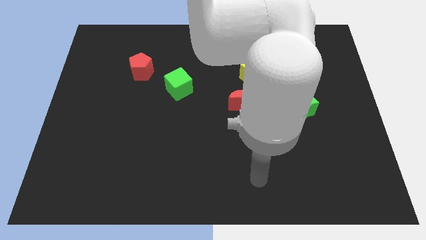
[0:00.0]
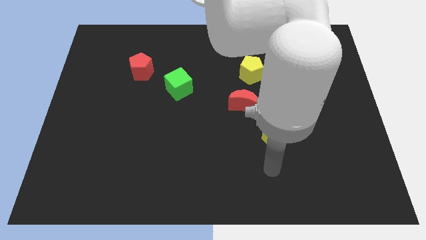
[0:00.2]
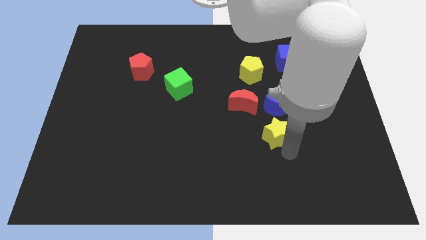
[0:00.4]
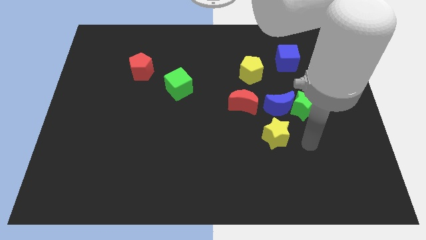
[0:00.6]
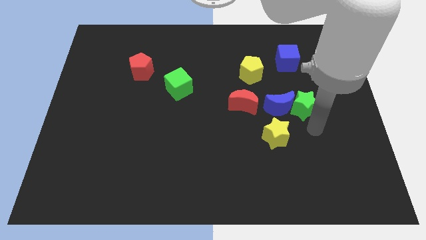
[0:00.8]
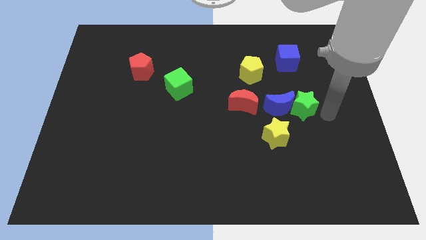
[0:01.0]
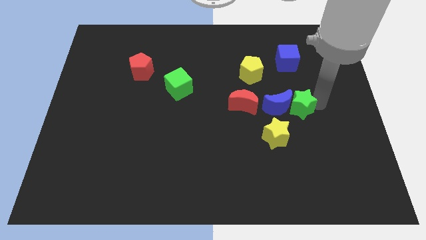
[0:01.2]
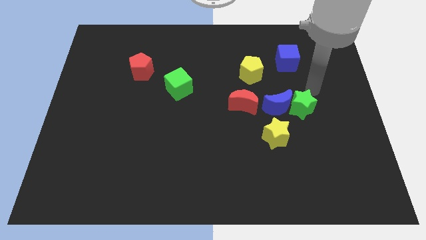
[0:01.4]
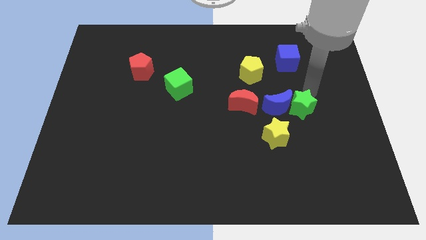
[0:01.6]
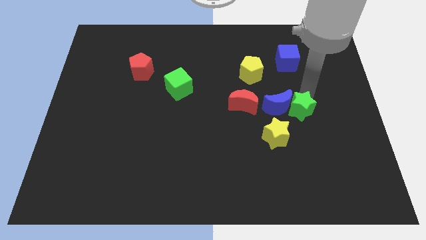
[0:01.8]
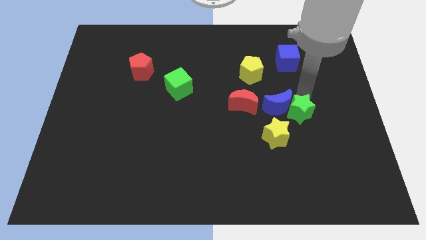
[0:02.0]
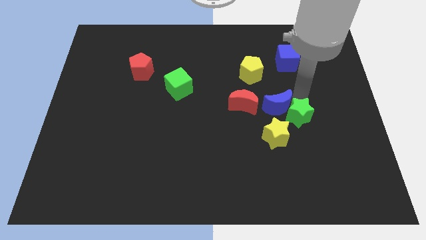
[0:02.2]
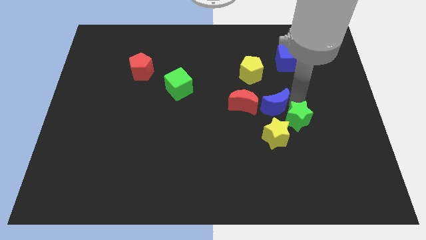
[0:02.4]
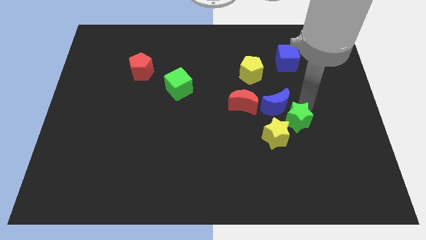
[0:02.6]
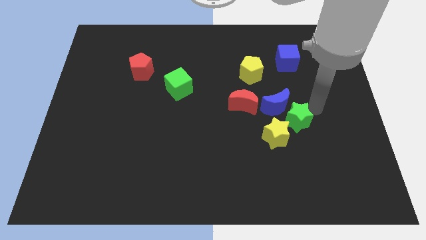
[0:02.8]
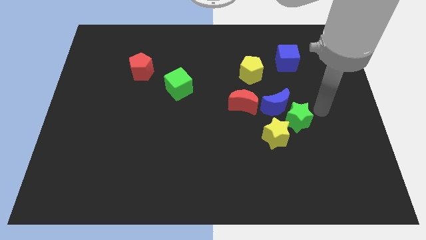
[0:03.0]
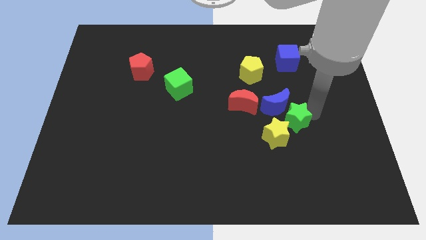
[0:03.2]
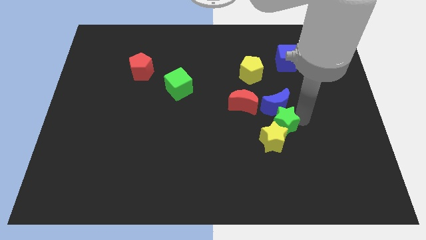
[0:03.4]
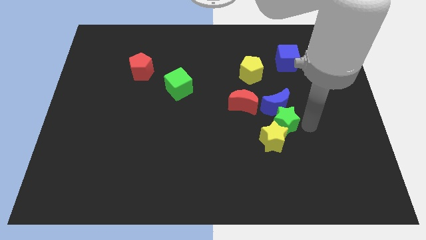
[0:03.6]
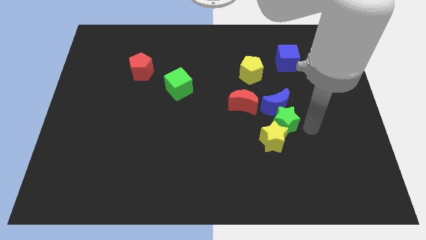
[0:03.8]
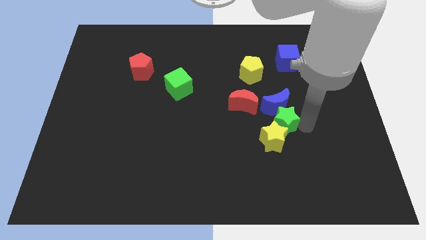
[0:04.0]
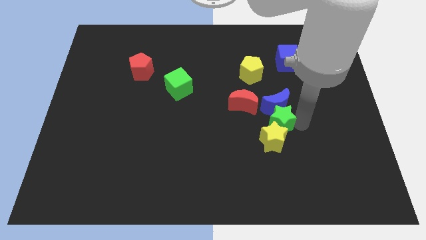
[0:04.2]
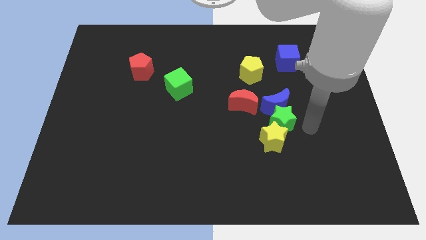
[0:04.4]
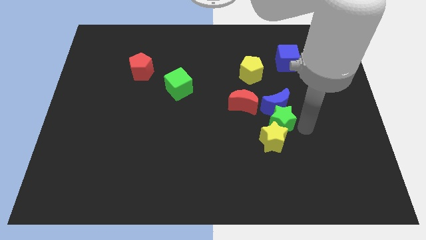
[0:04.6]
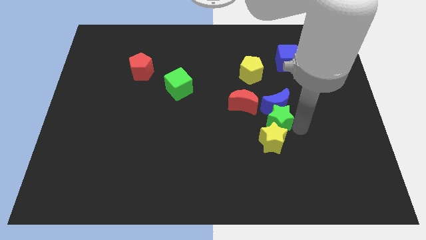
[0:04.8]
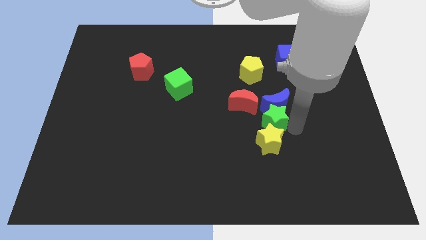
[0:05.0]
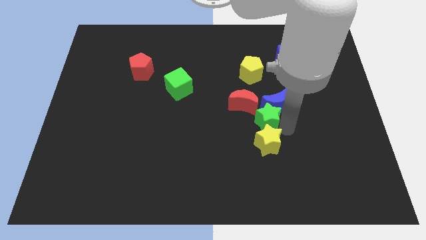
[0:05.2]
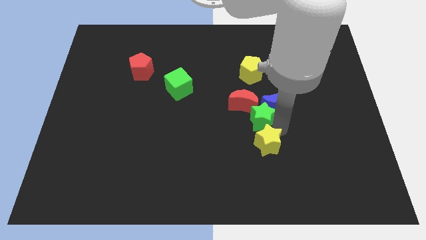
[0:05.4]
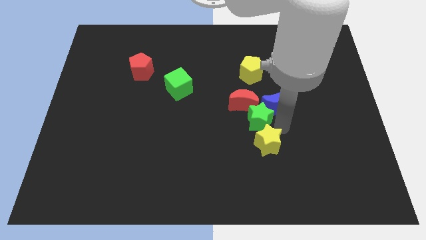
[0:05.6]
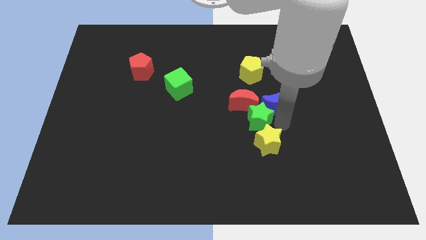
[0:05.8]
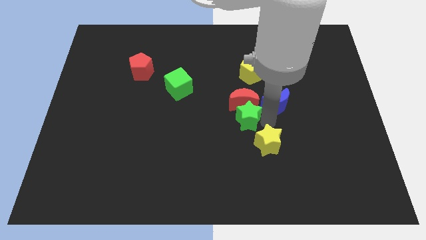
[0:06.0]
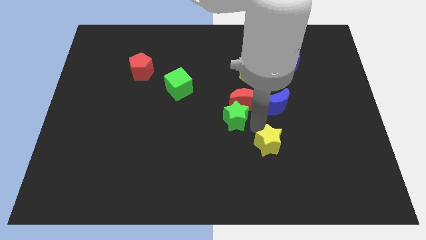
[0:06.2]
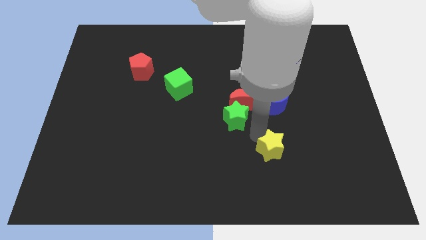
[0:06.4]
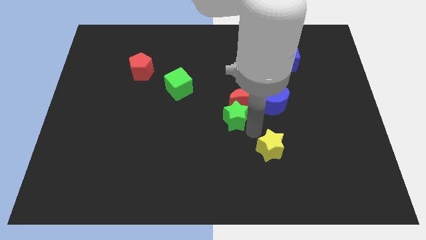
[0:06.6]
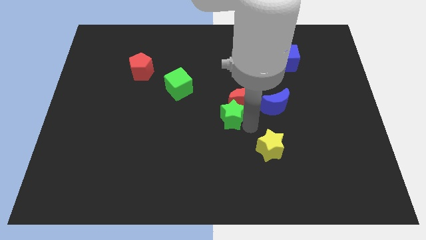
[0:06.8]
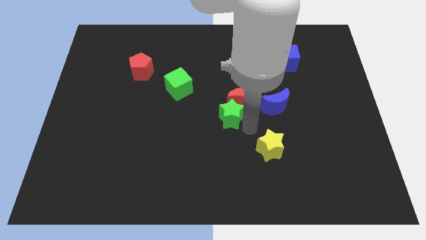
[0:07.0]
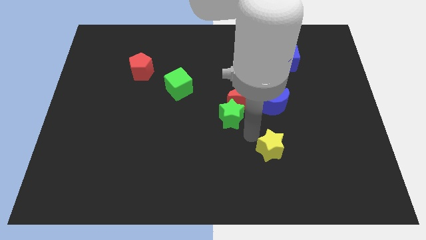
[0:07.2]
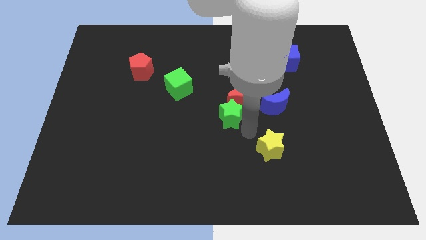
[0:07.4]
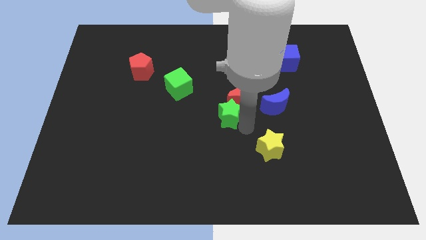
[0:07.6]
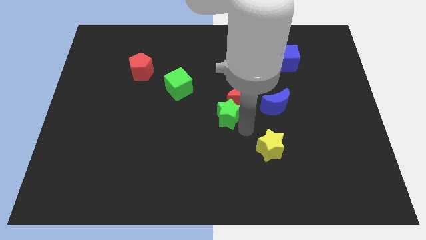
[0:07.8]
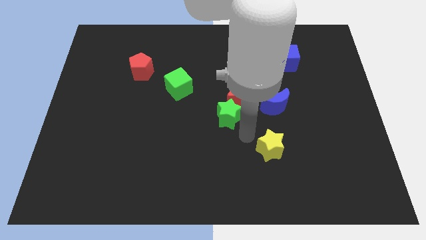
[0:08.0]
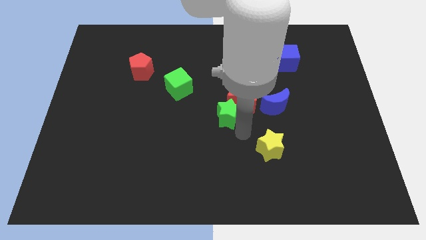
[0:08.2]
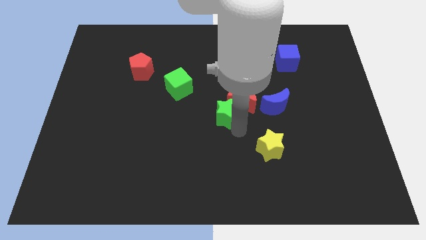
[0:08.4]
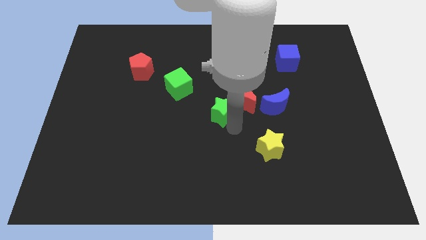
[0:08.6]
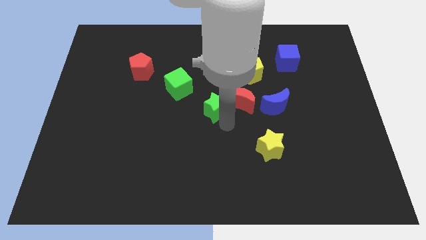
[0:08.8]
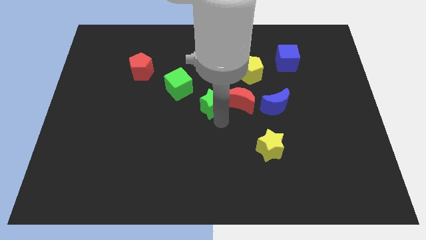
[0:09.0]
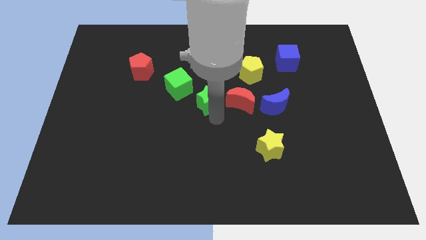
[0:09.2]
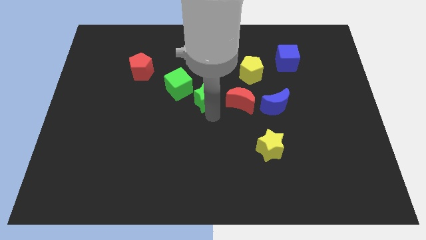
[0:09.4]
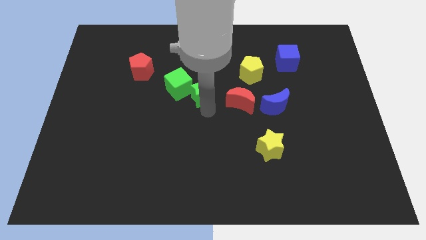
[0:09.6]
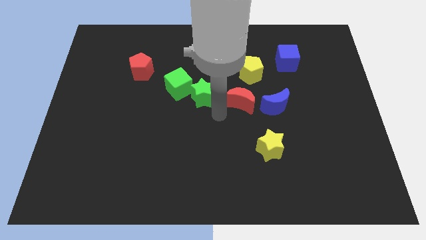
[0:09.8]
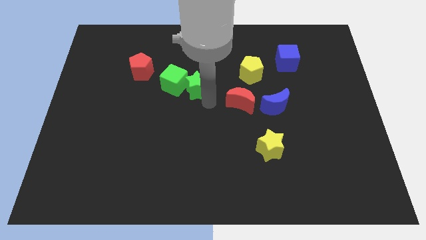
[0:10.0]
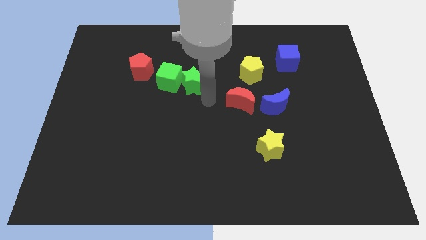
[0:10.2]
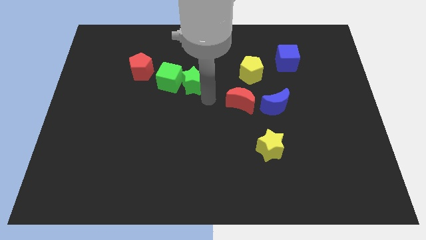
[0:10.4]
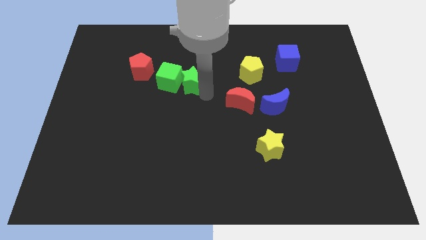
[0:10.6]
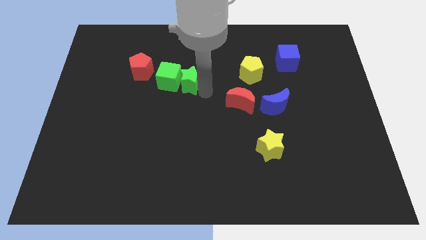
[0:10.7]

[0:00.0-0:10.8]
slide the green star to the right of the red pentagon

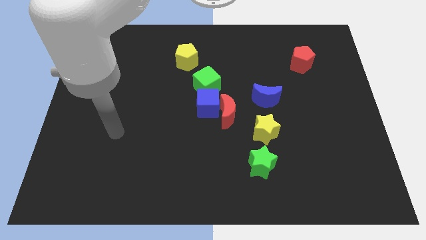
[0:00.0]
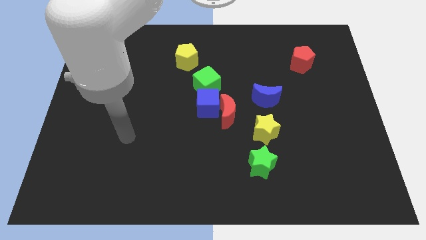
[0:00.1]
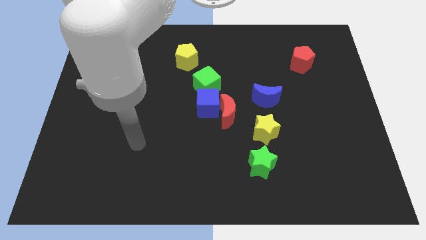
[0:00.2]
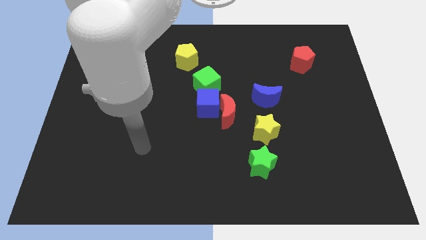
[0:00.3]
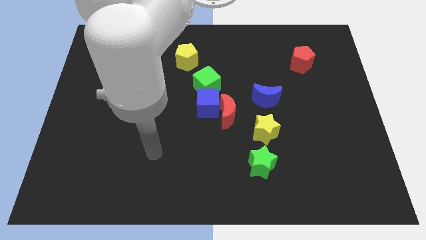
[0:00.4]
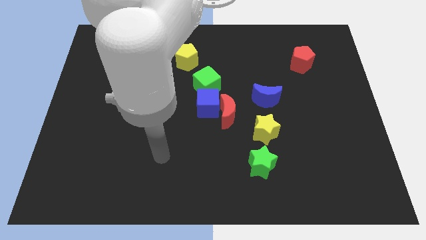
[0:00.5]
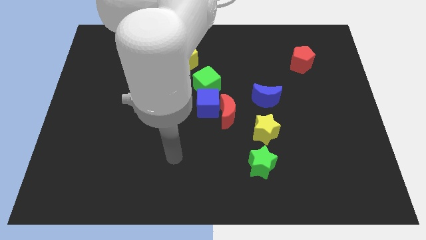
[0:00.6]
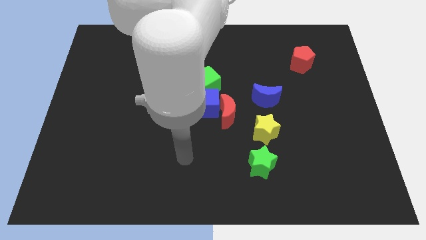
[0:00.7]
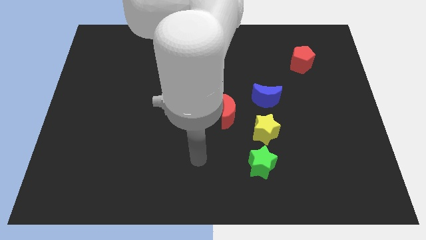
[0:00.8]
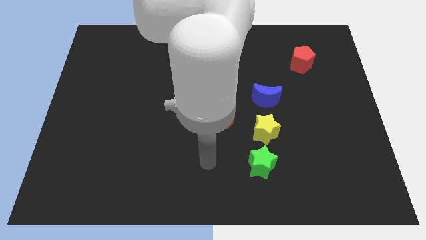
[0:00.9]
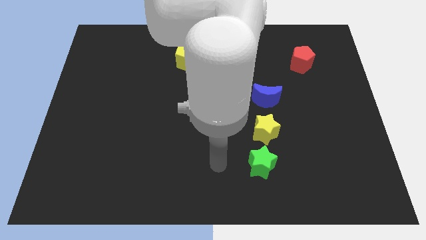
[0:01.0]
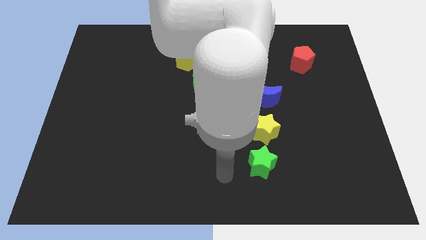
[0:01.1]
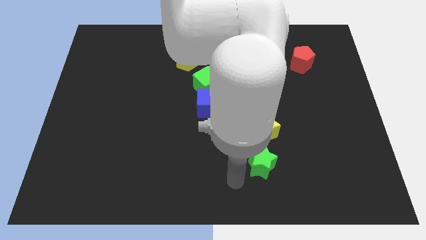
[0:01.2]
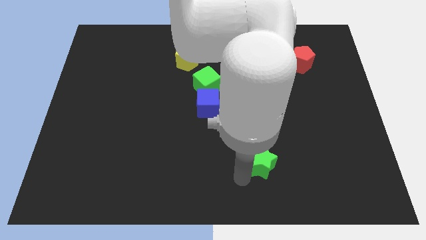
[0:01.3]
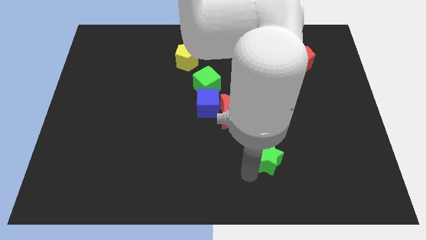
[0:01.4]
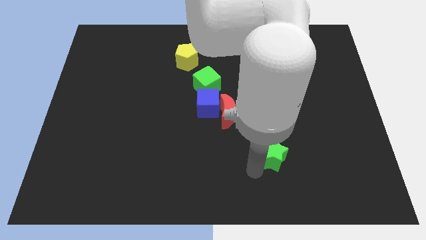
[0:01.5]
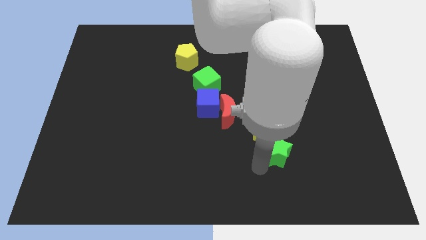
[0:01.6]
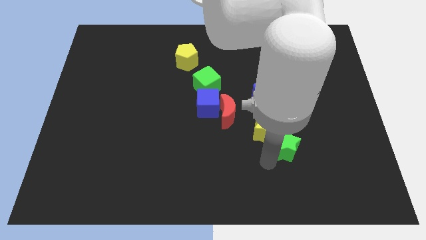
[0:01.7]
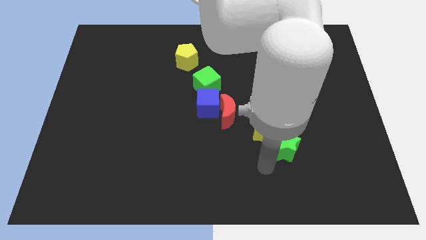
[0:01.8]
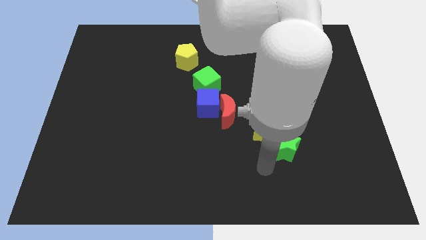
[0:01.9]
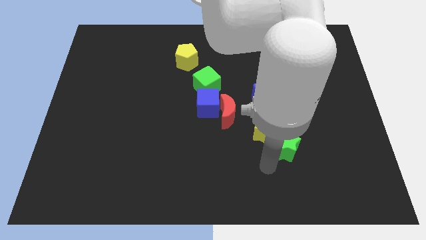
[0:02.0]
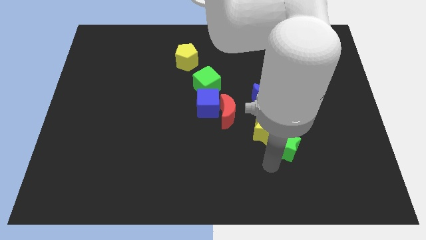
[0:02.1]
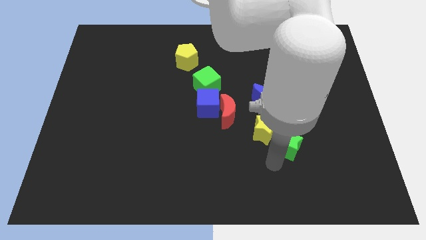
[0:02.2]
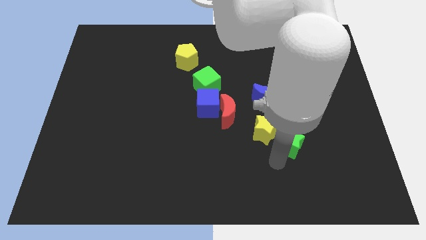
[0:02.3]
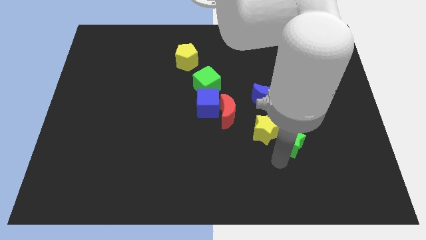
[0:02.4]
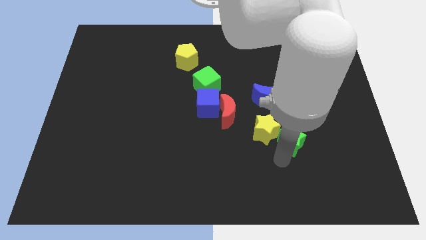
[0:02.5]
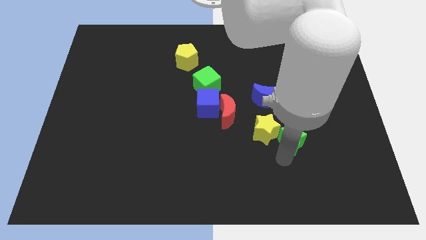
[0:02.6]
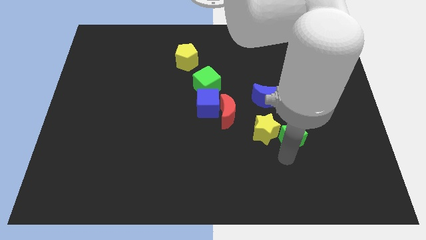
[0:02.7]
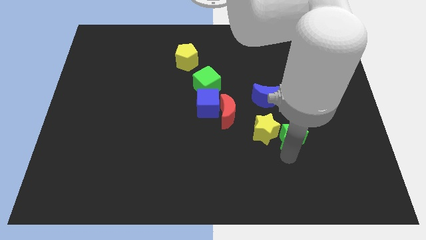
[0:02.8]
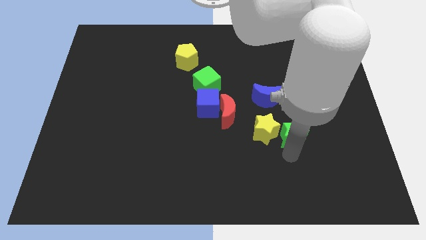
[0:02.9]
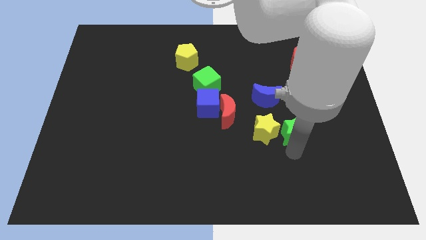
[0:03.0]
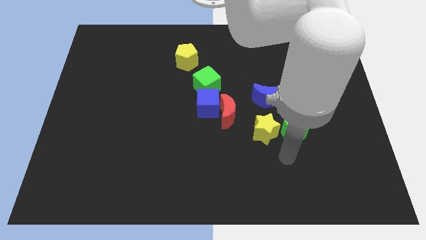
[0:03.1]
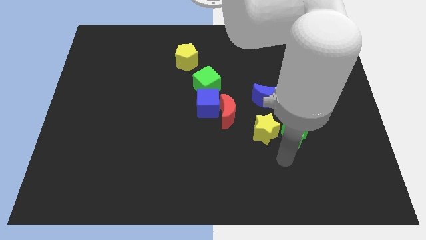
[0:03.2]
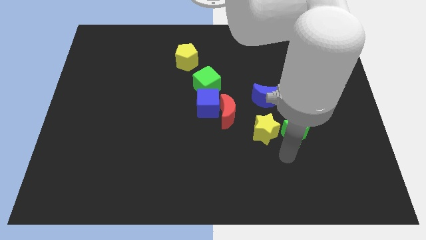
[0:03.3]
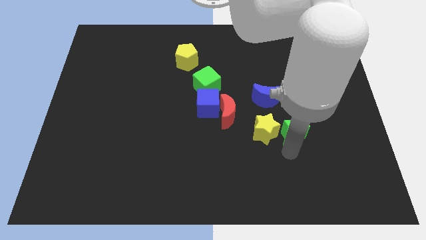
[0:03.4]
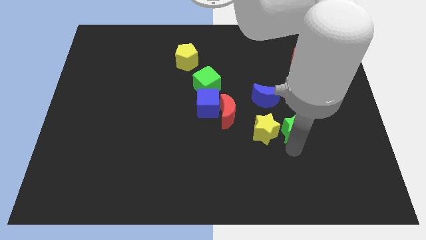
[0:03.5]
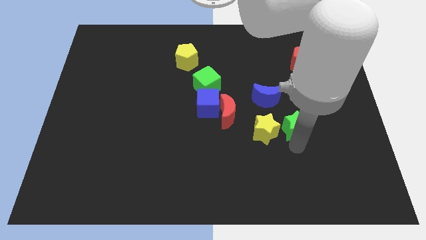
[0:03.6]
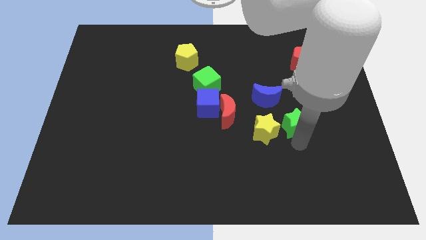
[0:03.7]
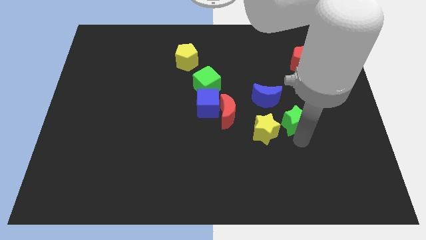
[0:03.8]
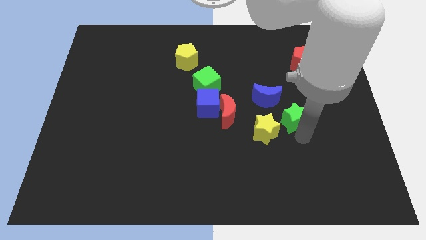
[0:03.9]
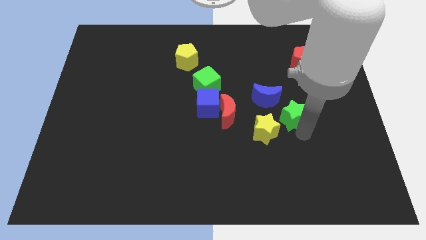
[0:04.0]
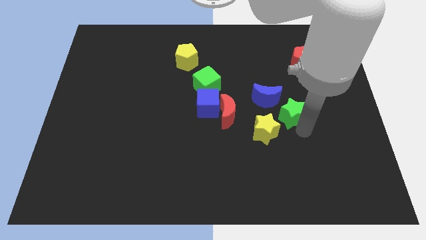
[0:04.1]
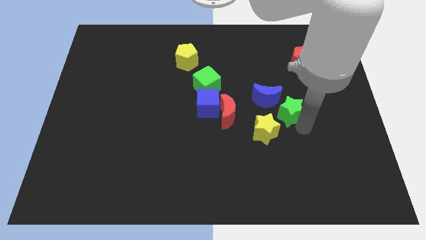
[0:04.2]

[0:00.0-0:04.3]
push the green star just right of the blue moon
